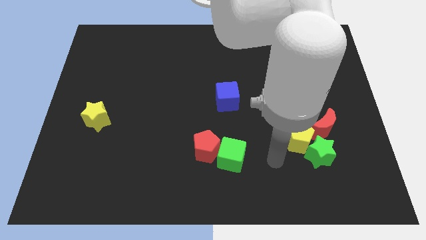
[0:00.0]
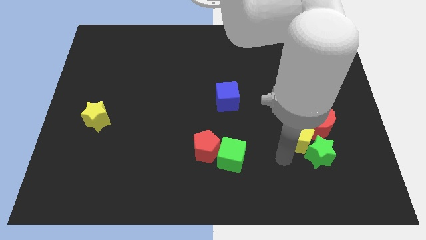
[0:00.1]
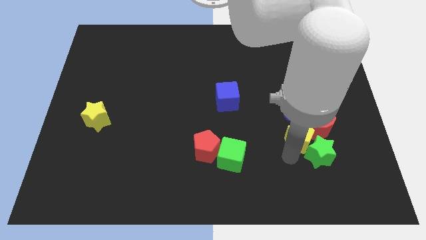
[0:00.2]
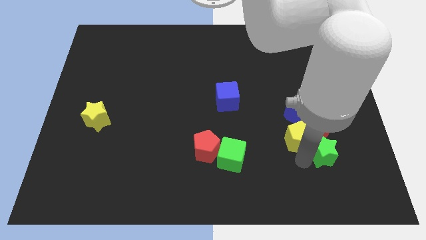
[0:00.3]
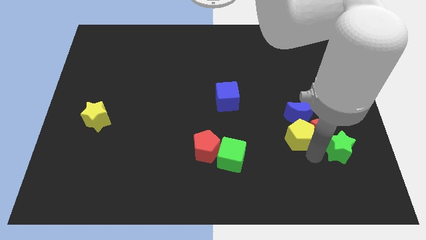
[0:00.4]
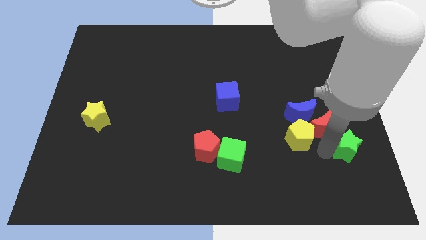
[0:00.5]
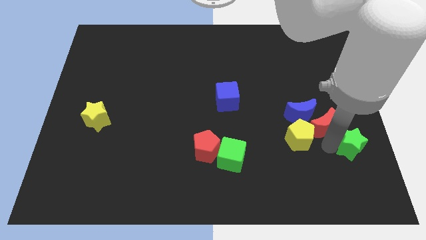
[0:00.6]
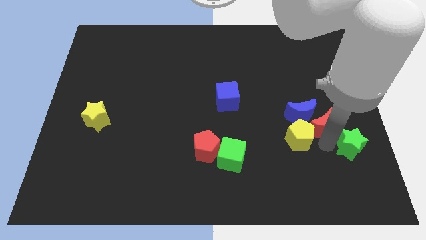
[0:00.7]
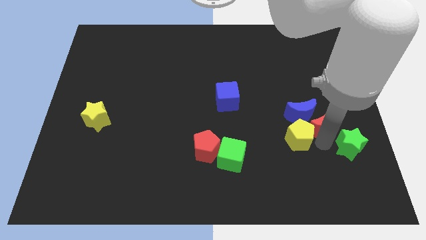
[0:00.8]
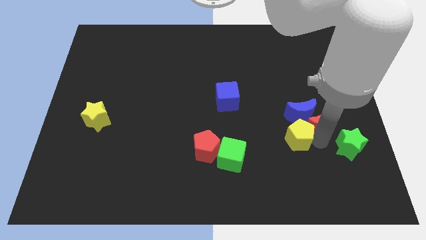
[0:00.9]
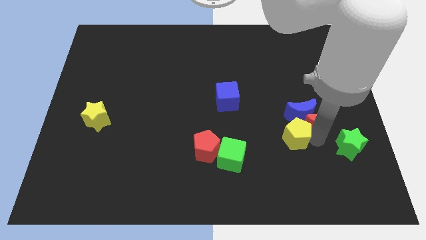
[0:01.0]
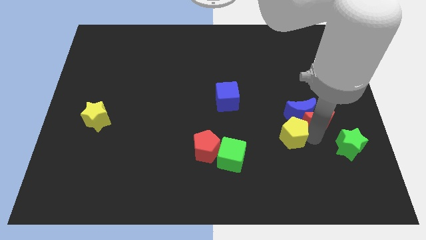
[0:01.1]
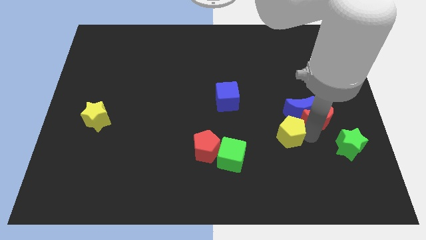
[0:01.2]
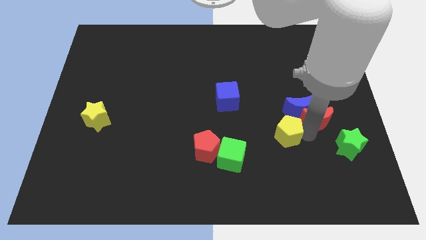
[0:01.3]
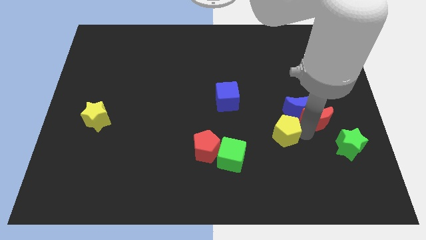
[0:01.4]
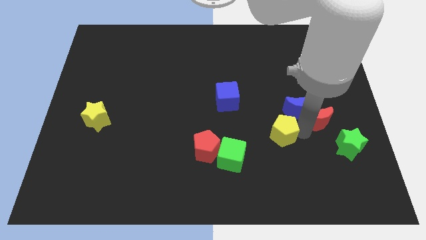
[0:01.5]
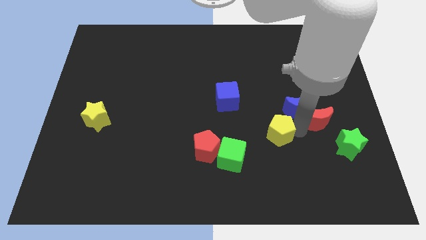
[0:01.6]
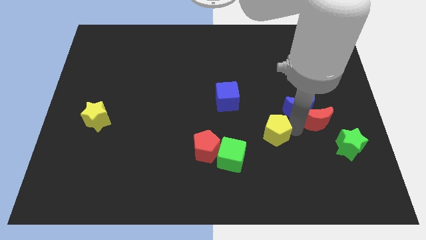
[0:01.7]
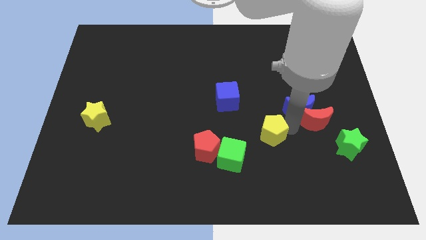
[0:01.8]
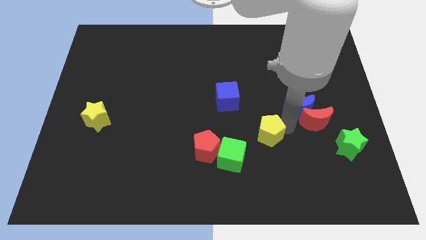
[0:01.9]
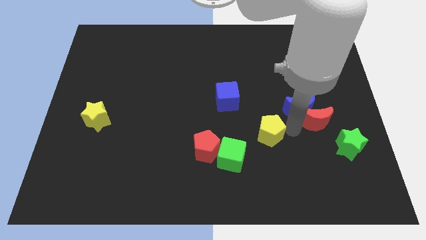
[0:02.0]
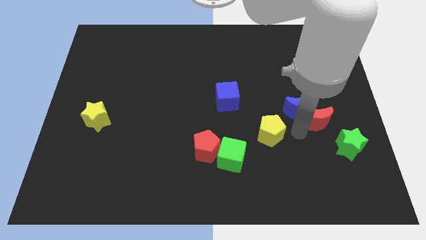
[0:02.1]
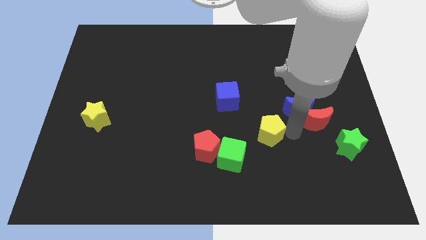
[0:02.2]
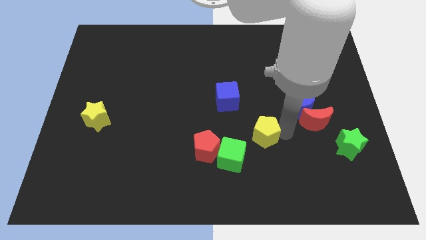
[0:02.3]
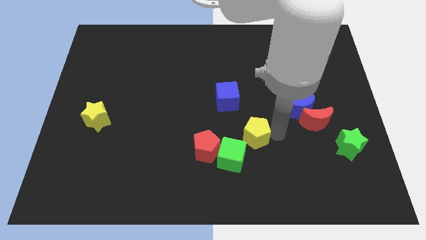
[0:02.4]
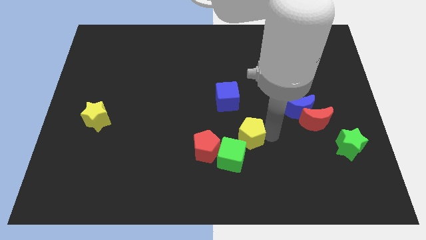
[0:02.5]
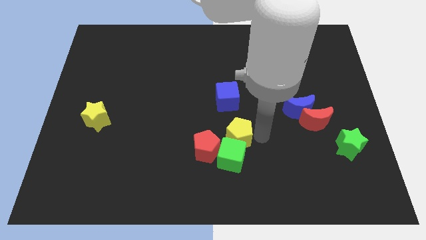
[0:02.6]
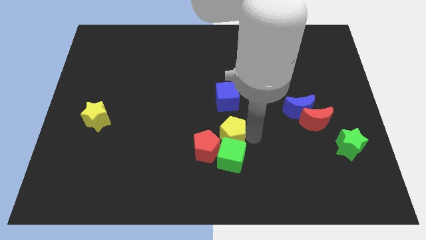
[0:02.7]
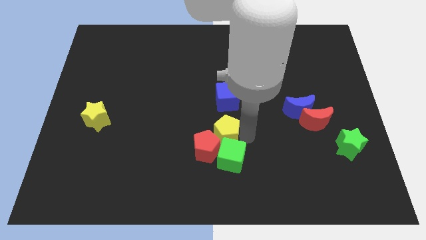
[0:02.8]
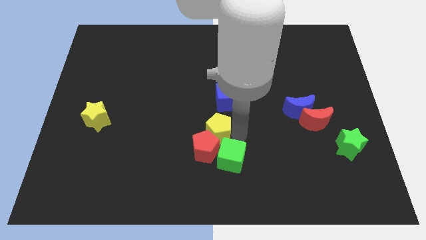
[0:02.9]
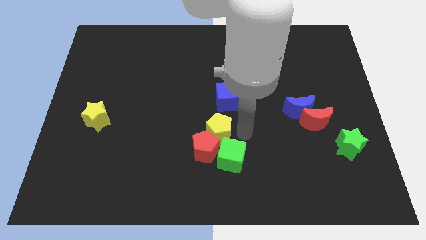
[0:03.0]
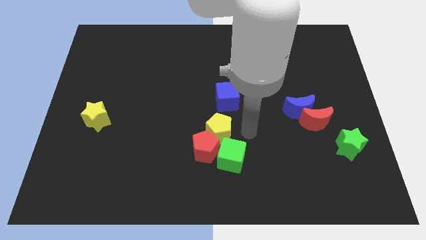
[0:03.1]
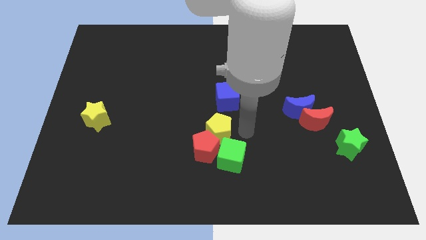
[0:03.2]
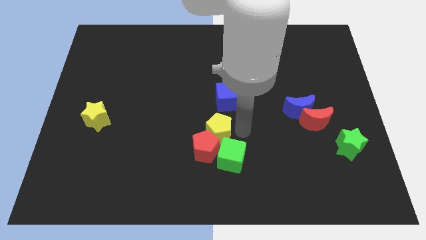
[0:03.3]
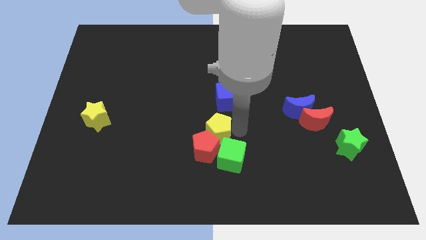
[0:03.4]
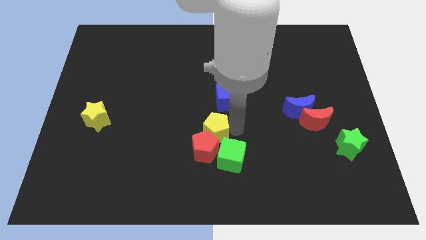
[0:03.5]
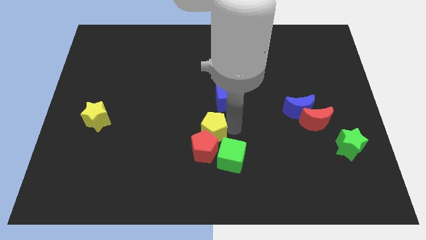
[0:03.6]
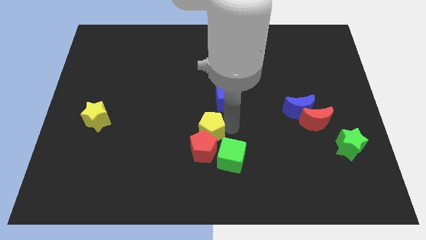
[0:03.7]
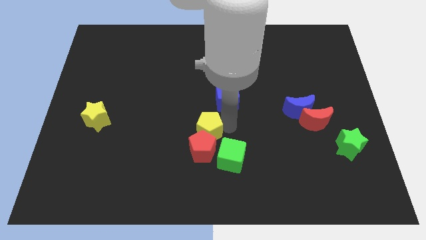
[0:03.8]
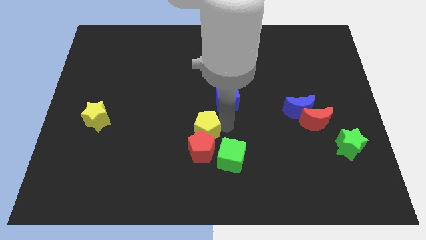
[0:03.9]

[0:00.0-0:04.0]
push the yellow pentagon to the left

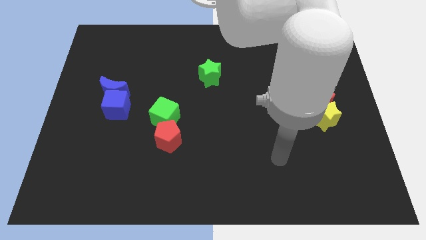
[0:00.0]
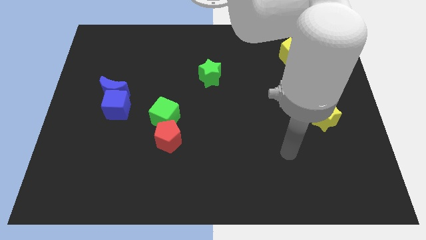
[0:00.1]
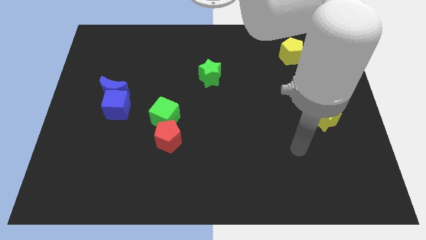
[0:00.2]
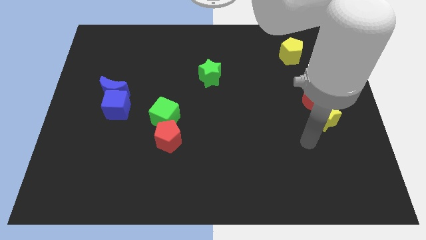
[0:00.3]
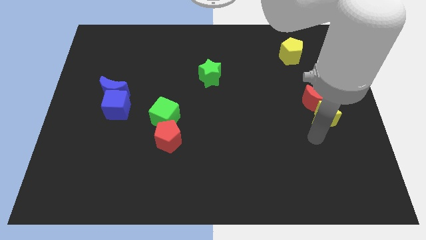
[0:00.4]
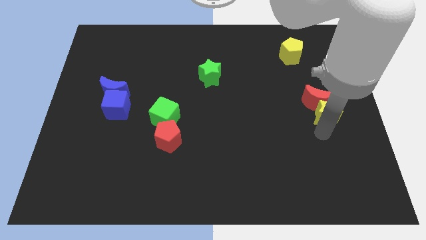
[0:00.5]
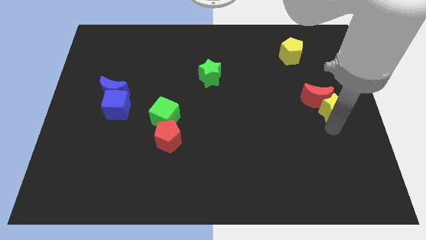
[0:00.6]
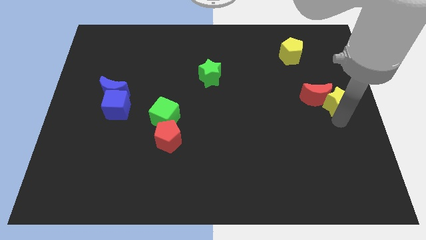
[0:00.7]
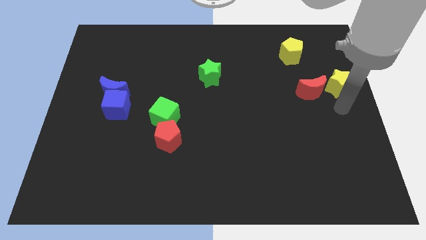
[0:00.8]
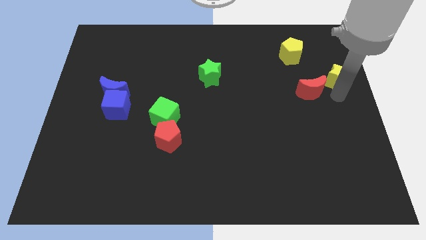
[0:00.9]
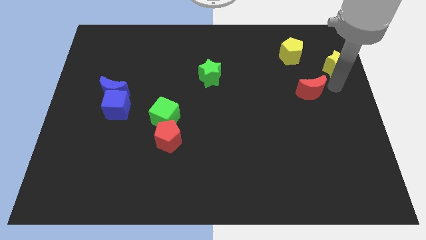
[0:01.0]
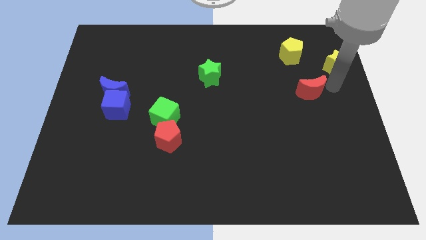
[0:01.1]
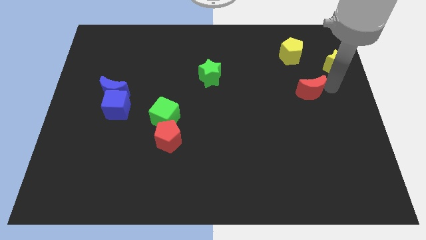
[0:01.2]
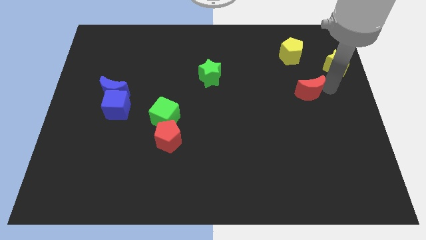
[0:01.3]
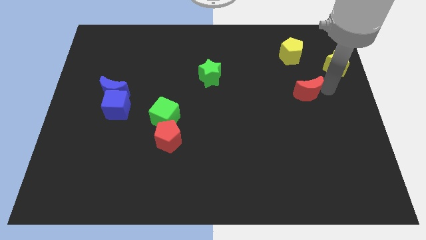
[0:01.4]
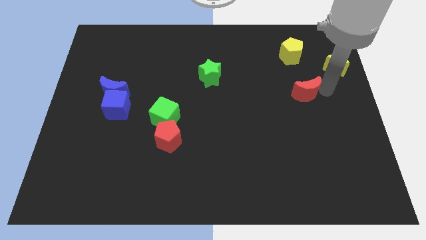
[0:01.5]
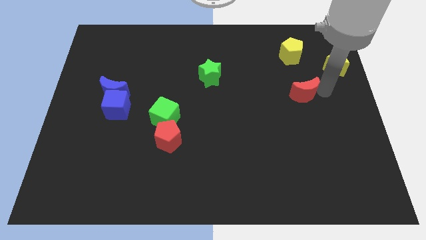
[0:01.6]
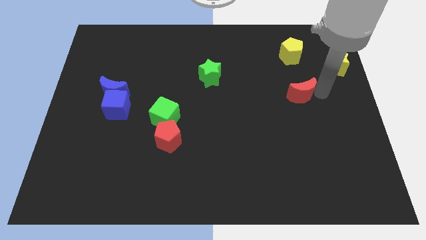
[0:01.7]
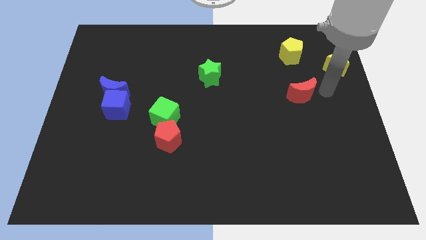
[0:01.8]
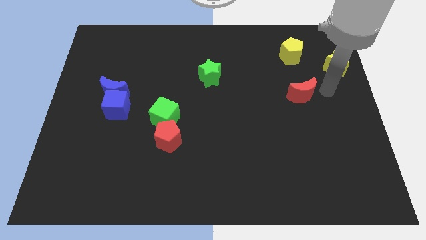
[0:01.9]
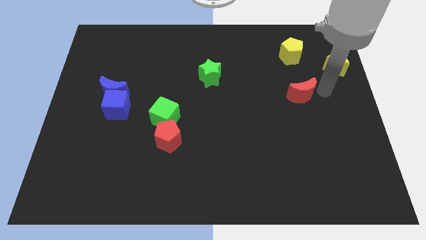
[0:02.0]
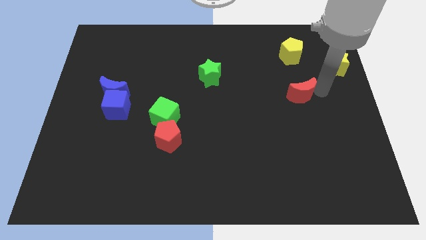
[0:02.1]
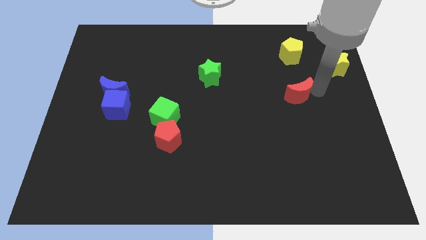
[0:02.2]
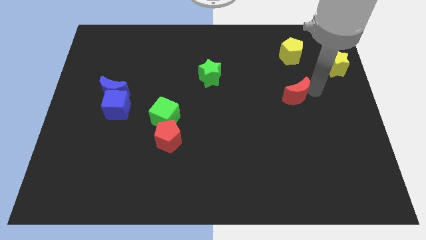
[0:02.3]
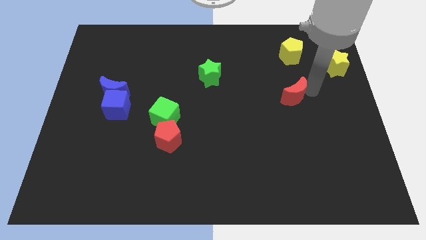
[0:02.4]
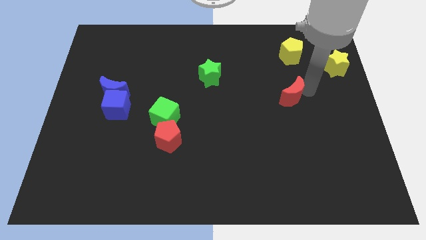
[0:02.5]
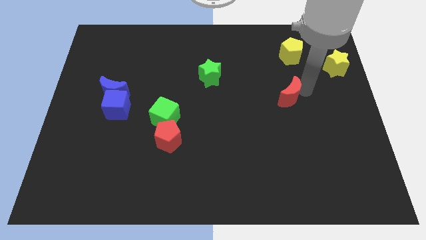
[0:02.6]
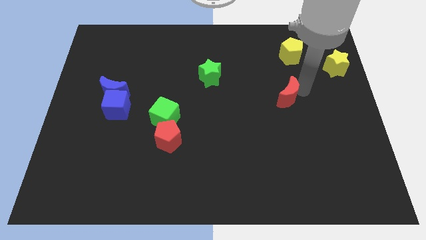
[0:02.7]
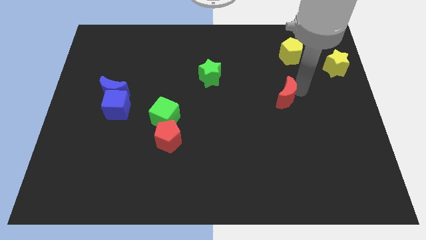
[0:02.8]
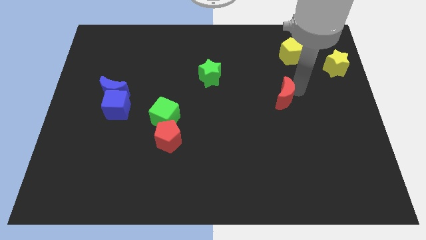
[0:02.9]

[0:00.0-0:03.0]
push the red moon to the left slightly

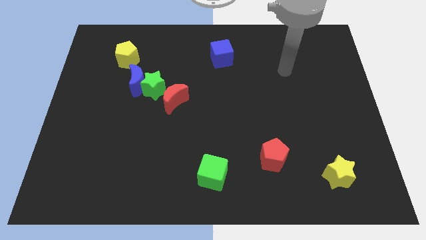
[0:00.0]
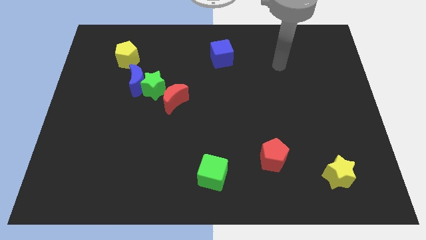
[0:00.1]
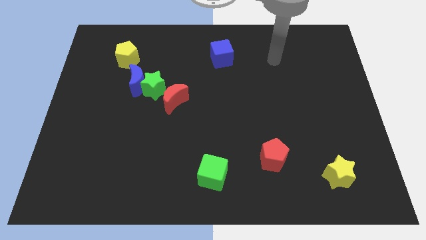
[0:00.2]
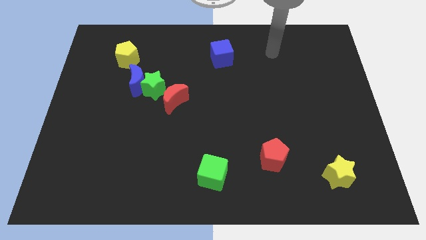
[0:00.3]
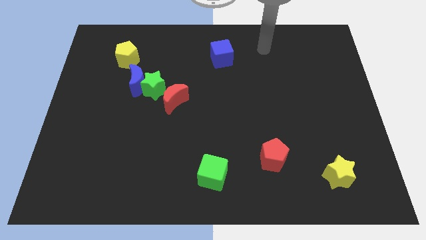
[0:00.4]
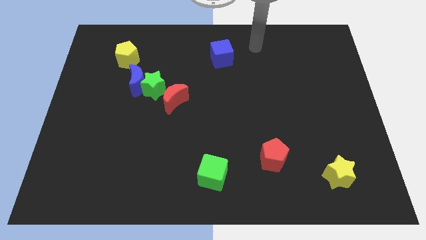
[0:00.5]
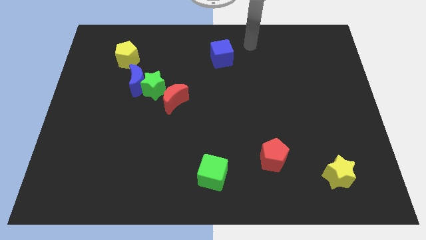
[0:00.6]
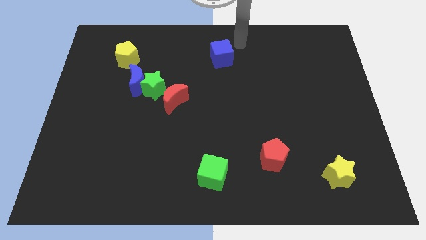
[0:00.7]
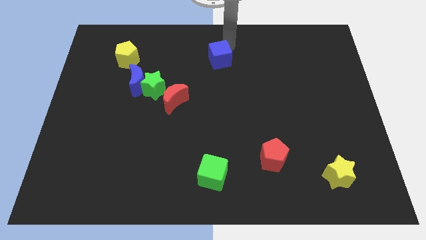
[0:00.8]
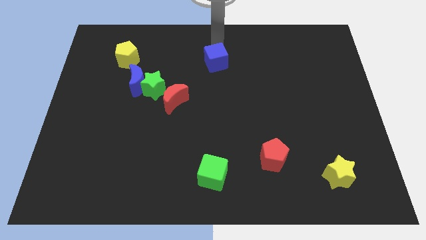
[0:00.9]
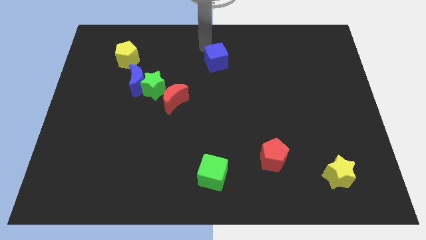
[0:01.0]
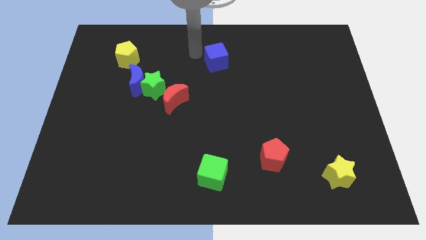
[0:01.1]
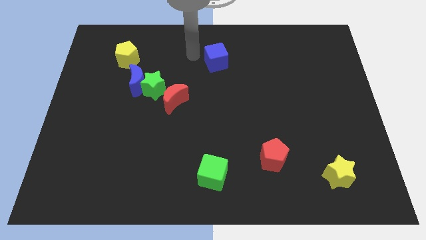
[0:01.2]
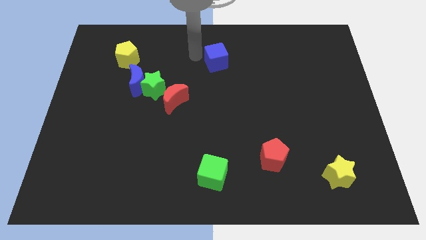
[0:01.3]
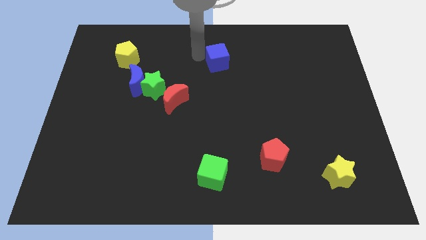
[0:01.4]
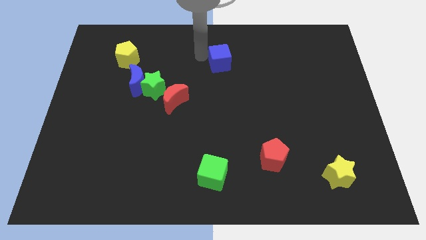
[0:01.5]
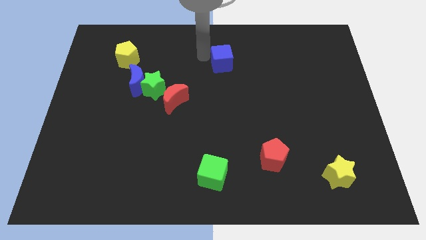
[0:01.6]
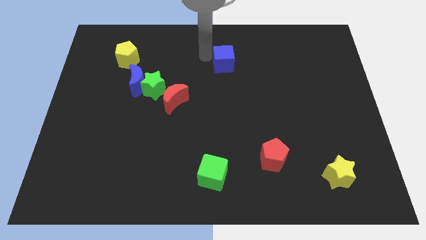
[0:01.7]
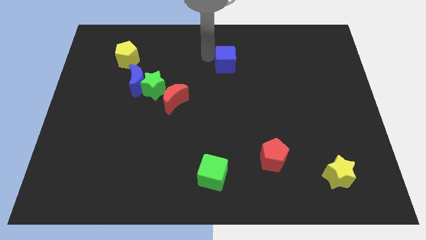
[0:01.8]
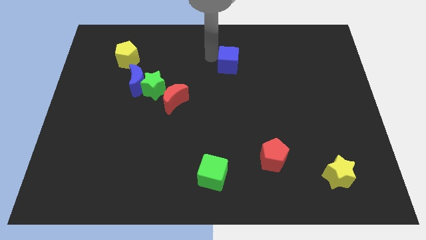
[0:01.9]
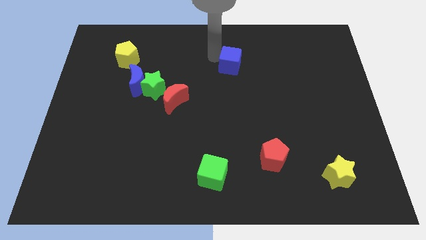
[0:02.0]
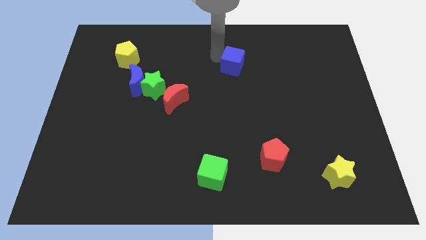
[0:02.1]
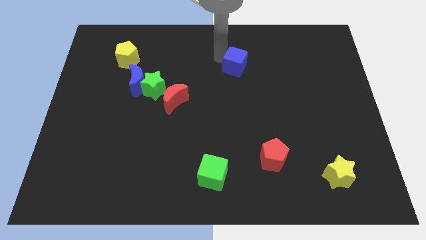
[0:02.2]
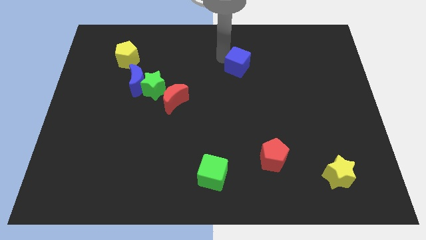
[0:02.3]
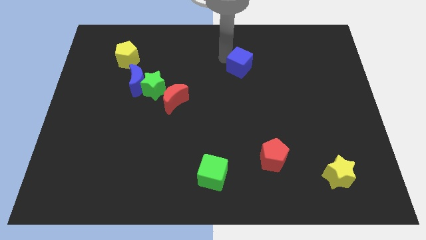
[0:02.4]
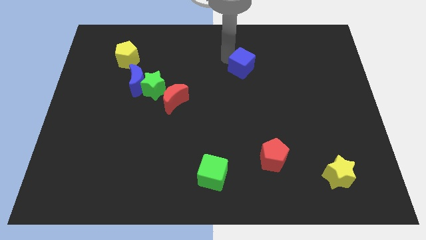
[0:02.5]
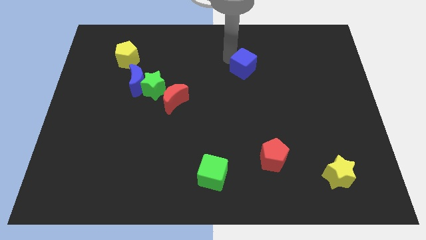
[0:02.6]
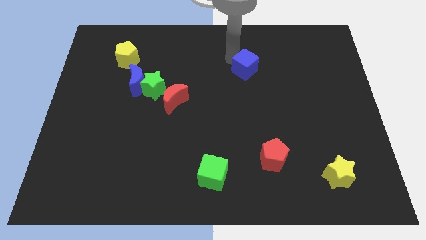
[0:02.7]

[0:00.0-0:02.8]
slightly push the blue cube downwards and to the right
